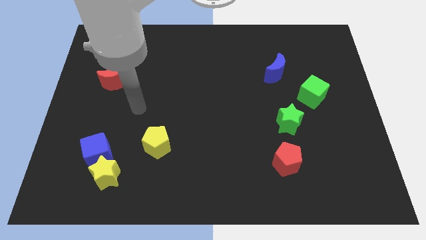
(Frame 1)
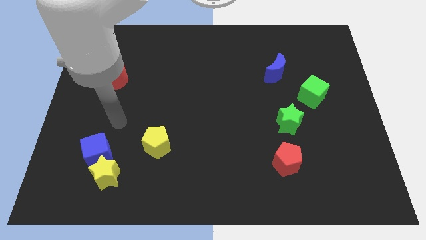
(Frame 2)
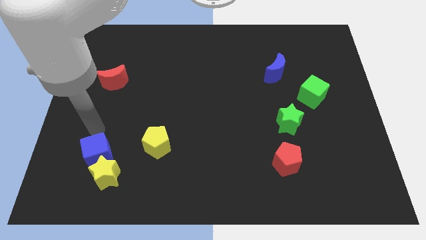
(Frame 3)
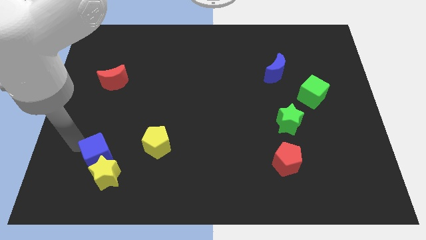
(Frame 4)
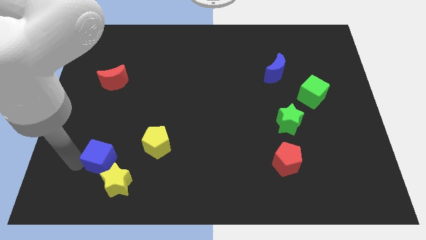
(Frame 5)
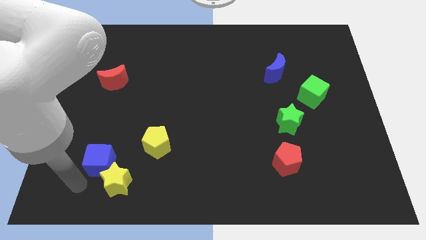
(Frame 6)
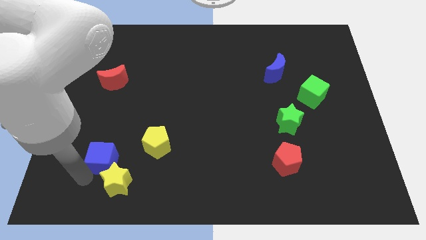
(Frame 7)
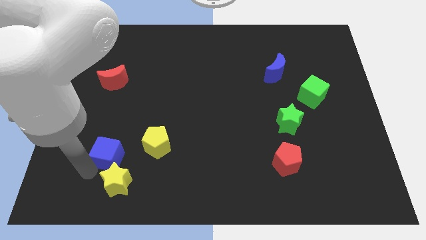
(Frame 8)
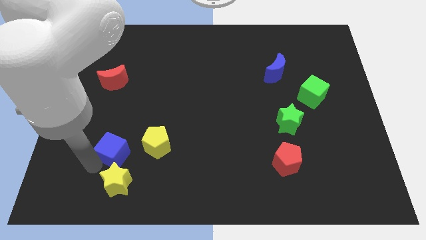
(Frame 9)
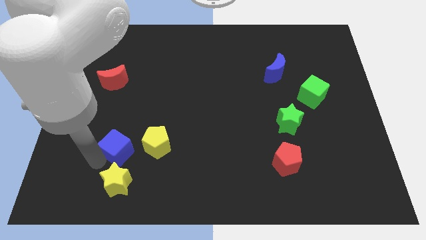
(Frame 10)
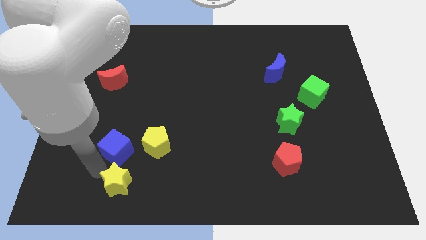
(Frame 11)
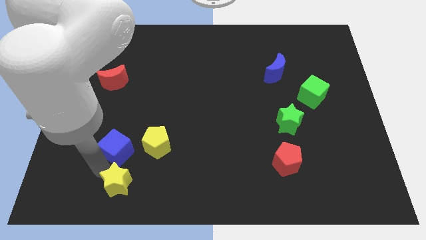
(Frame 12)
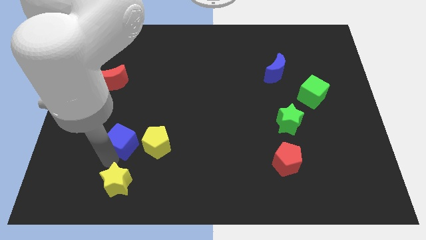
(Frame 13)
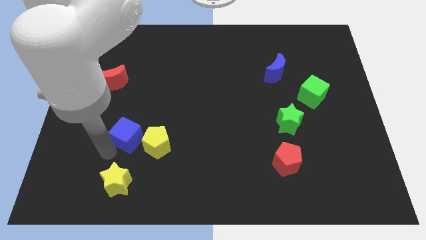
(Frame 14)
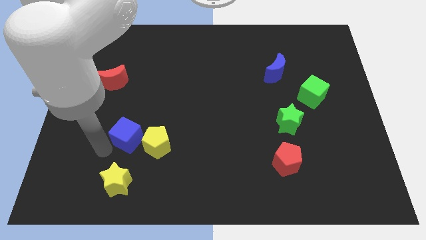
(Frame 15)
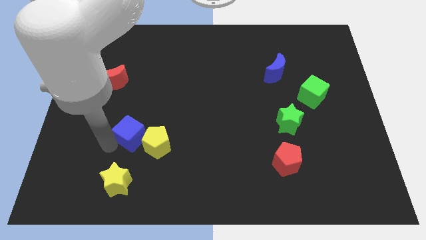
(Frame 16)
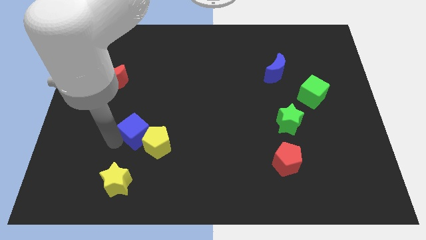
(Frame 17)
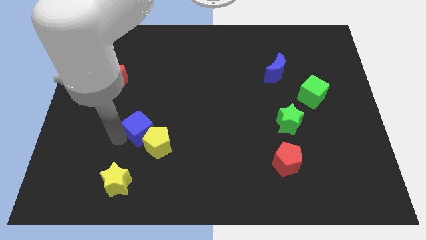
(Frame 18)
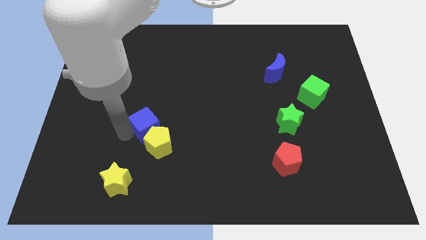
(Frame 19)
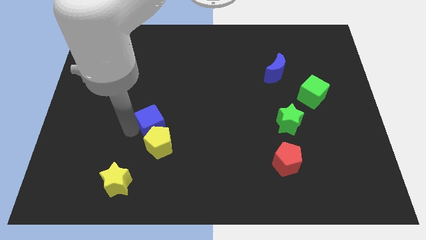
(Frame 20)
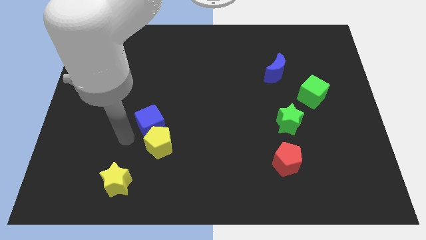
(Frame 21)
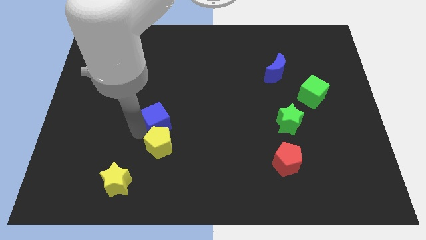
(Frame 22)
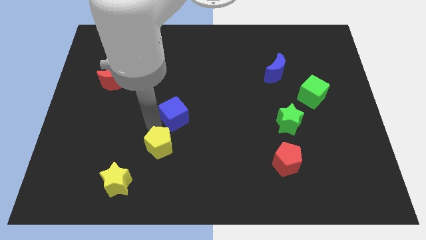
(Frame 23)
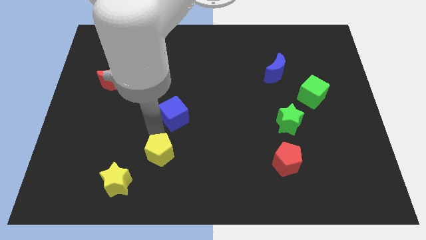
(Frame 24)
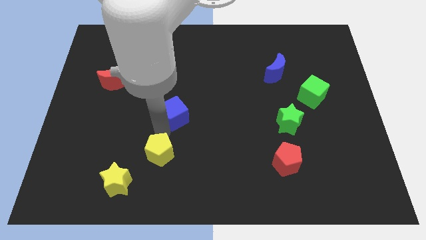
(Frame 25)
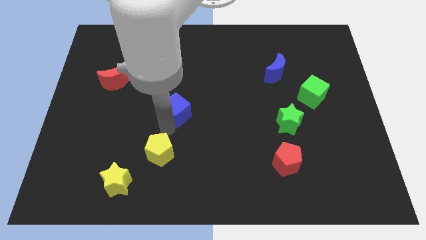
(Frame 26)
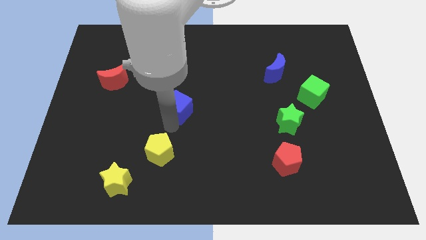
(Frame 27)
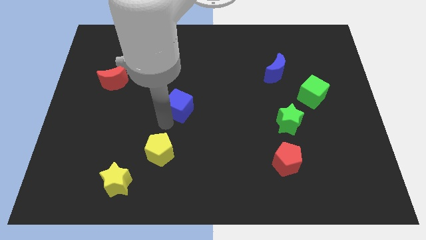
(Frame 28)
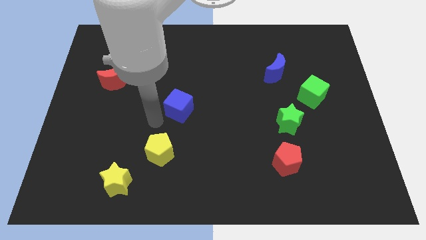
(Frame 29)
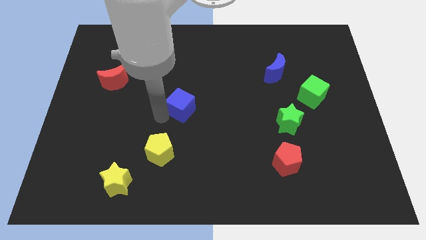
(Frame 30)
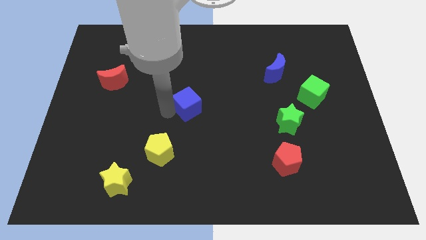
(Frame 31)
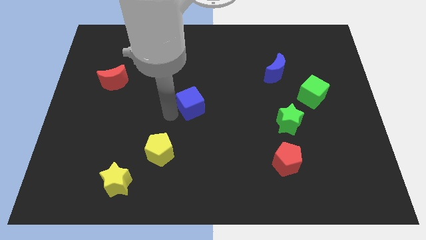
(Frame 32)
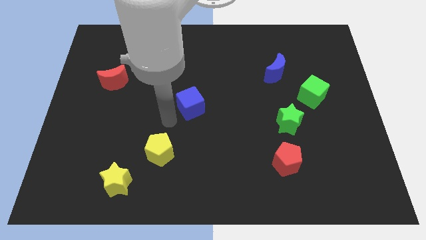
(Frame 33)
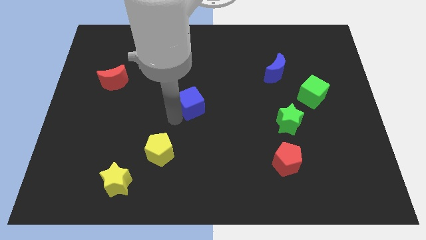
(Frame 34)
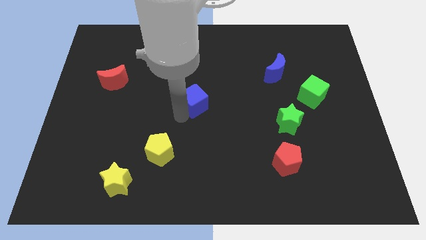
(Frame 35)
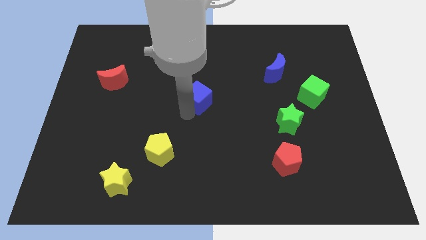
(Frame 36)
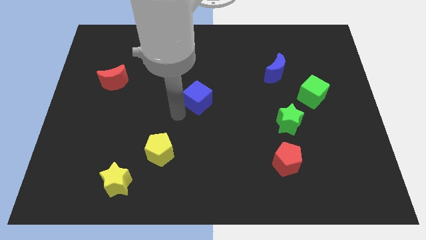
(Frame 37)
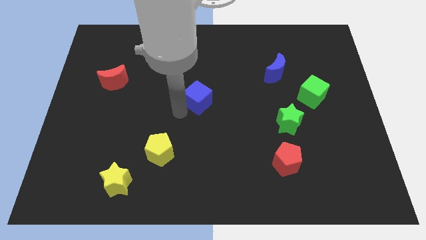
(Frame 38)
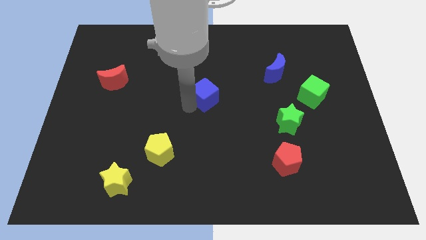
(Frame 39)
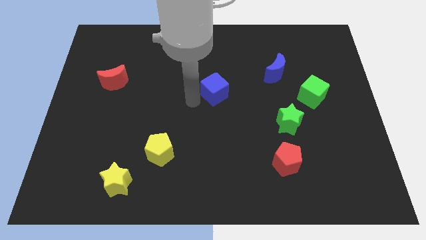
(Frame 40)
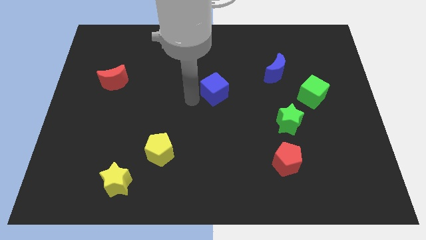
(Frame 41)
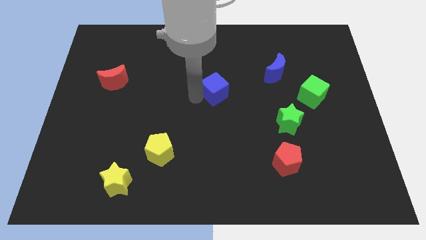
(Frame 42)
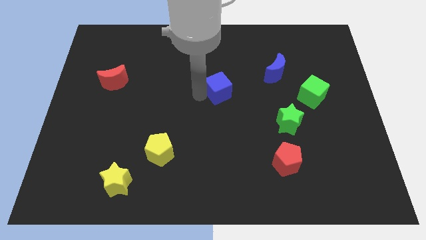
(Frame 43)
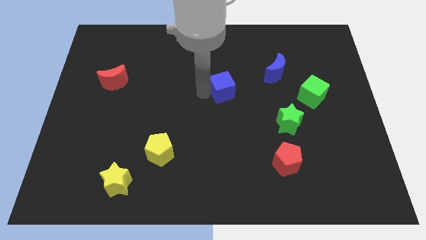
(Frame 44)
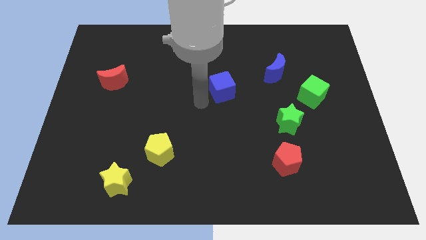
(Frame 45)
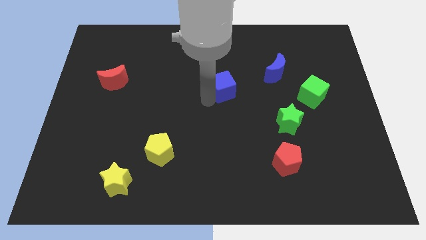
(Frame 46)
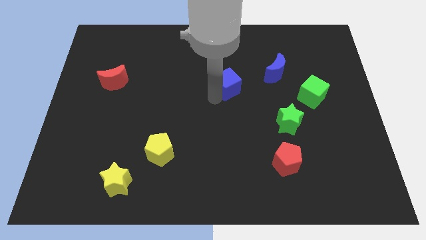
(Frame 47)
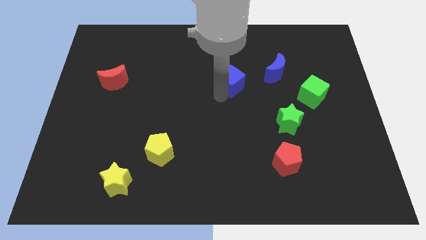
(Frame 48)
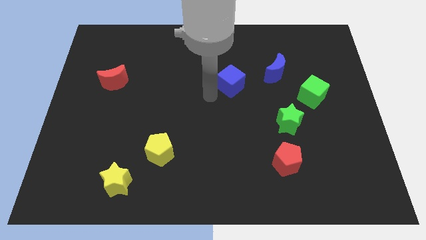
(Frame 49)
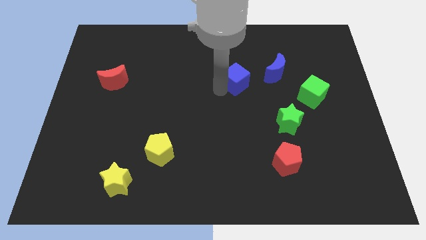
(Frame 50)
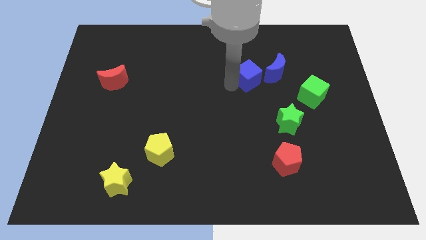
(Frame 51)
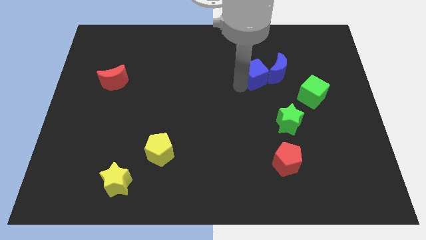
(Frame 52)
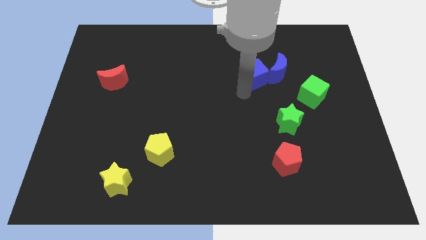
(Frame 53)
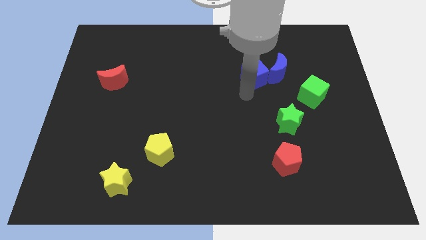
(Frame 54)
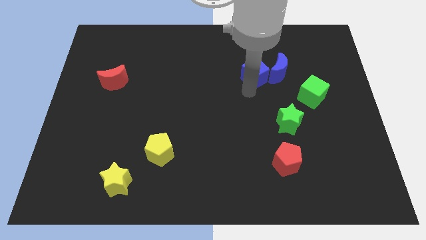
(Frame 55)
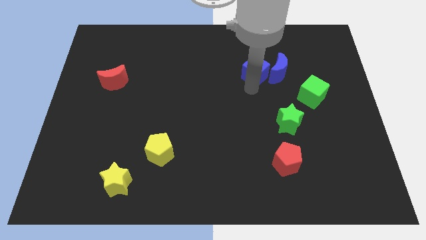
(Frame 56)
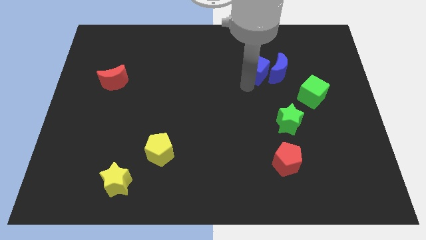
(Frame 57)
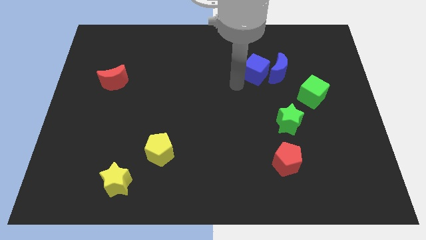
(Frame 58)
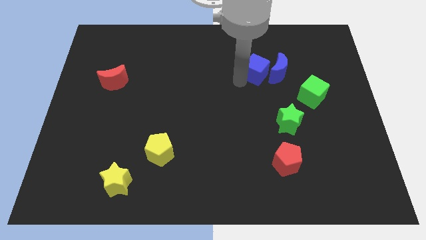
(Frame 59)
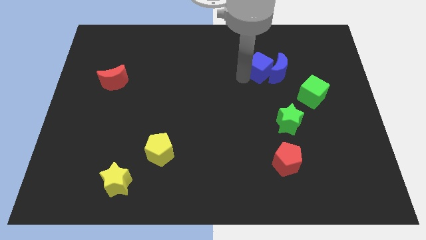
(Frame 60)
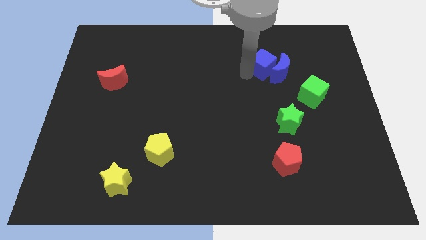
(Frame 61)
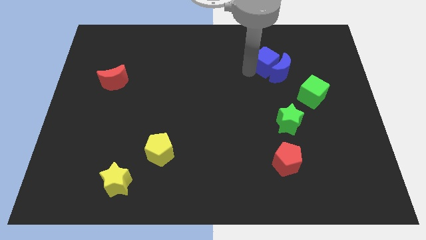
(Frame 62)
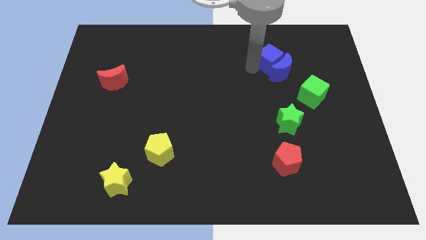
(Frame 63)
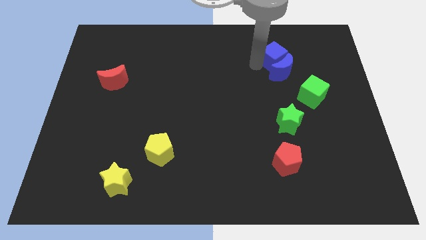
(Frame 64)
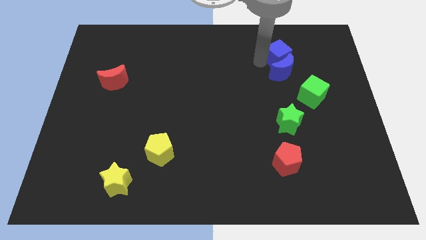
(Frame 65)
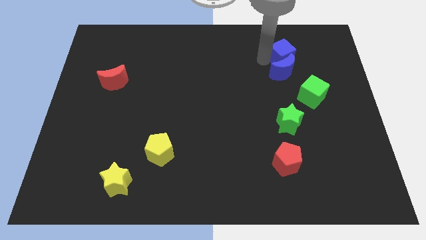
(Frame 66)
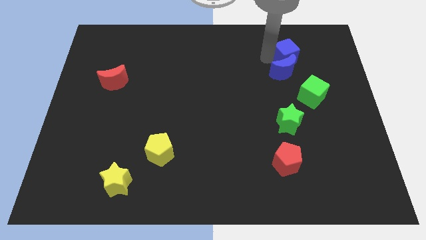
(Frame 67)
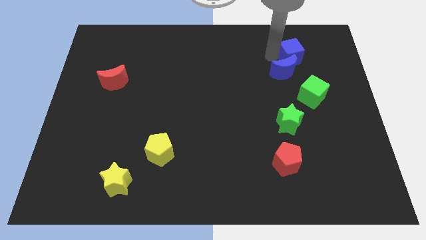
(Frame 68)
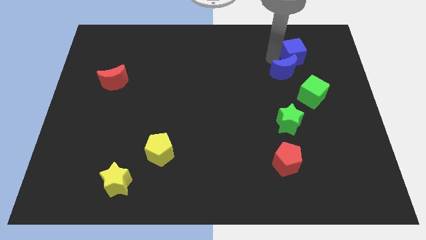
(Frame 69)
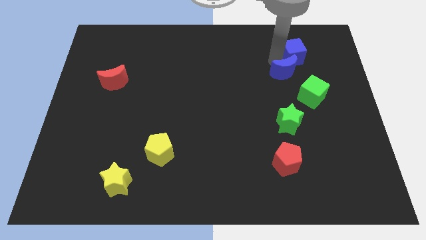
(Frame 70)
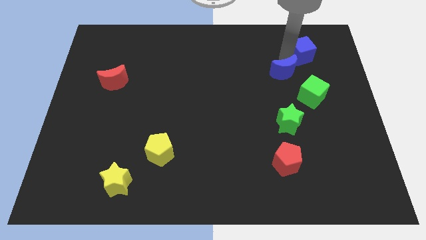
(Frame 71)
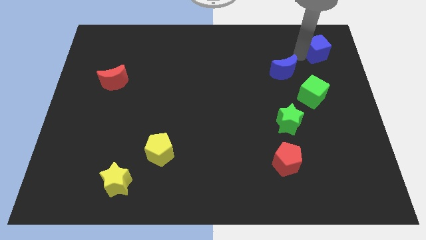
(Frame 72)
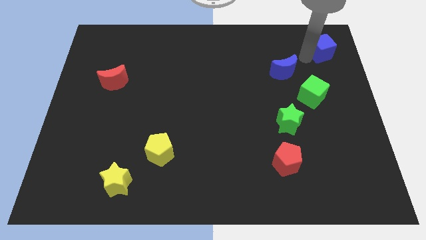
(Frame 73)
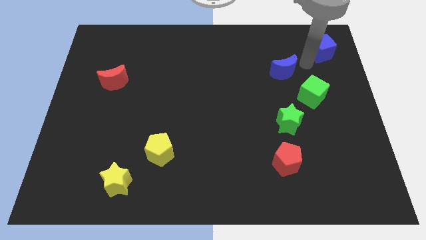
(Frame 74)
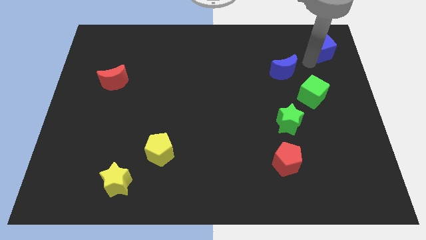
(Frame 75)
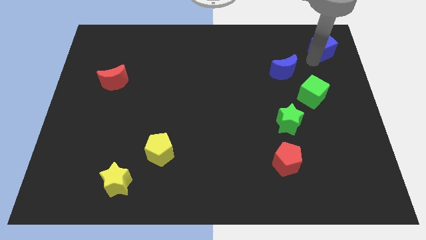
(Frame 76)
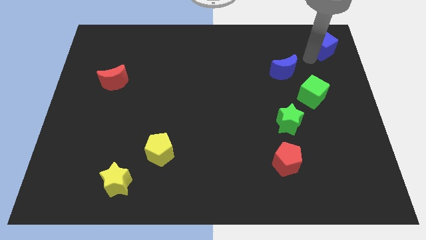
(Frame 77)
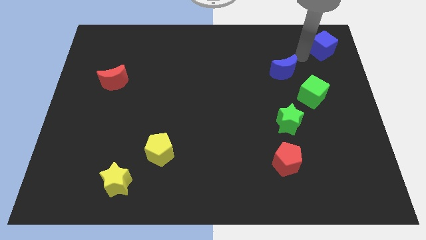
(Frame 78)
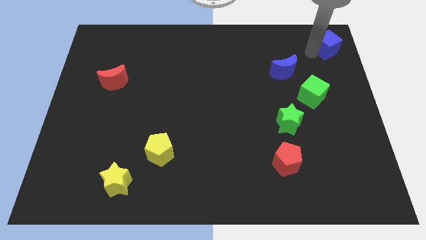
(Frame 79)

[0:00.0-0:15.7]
put the blue cube to the upper right corner
